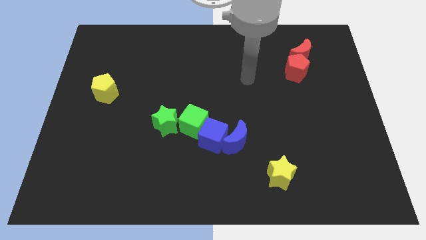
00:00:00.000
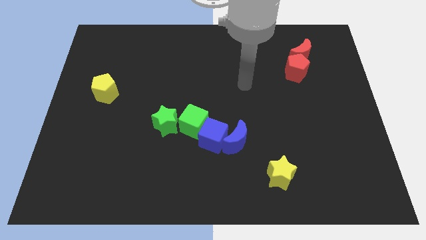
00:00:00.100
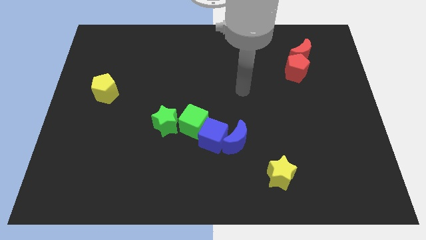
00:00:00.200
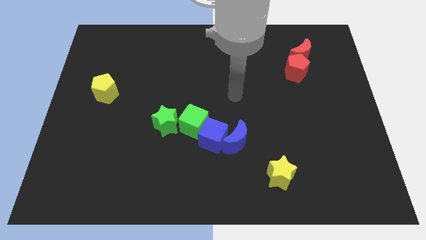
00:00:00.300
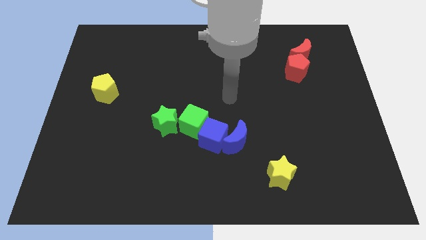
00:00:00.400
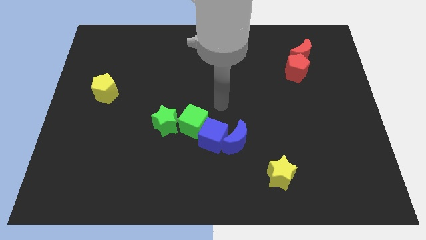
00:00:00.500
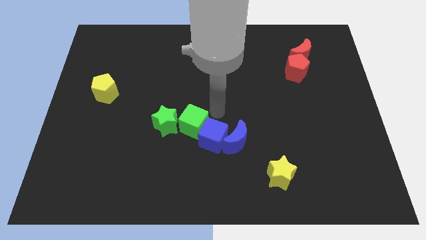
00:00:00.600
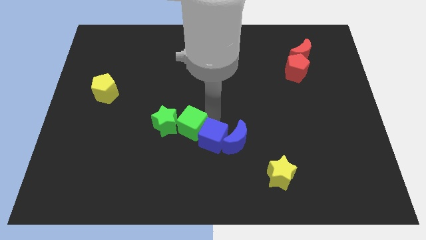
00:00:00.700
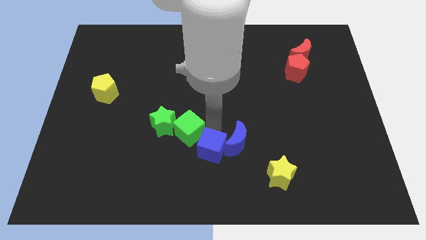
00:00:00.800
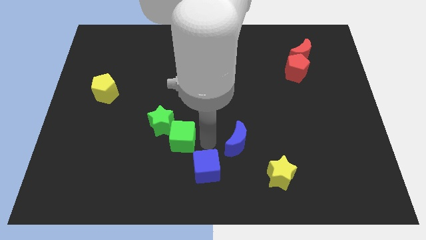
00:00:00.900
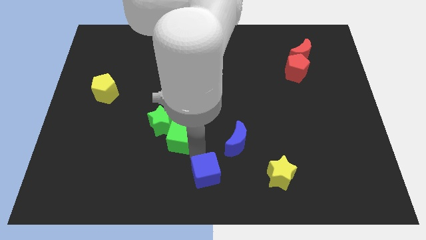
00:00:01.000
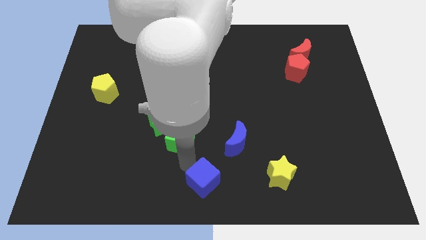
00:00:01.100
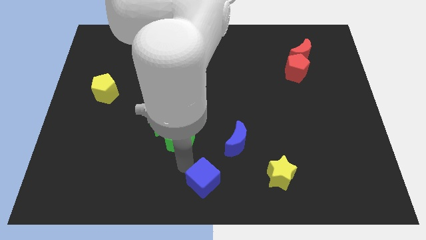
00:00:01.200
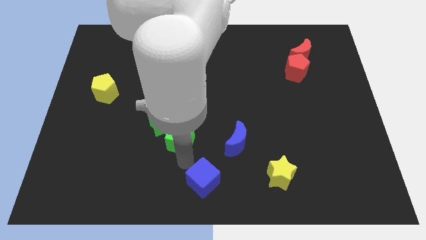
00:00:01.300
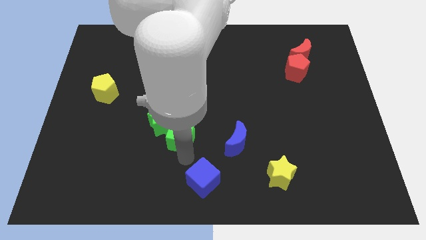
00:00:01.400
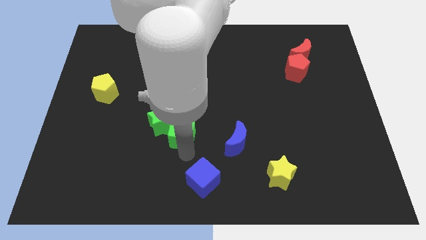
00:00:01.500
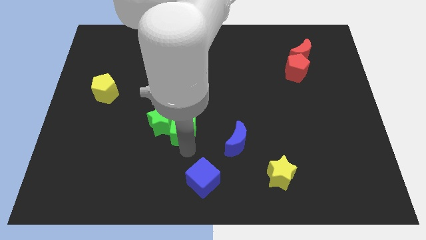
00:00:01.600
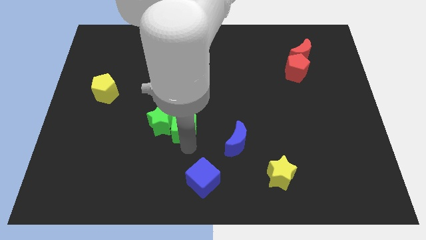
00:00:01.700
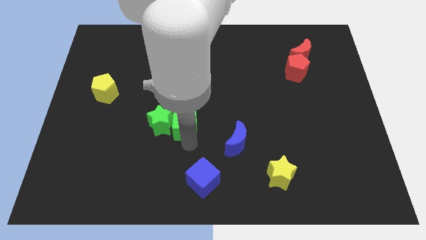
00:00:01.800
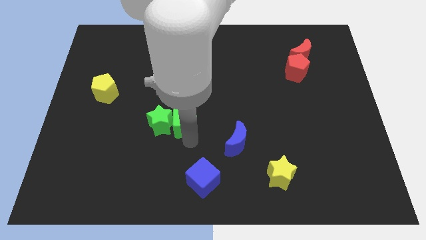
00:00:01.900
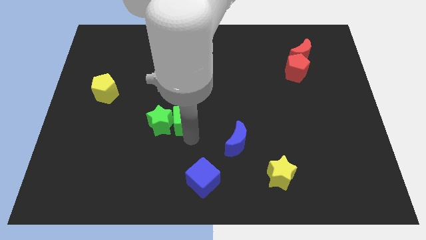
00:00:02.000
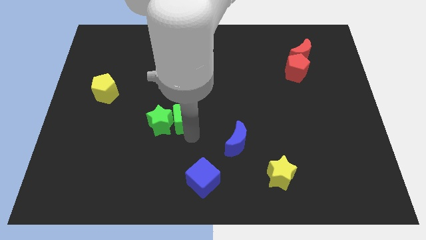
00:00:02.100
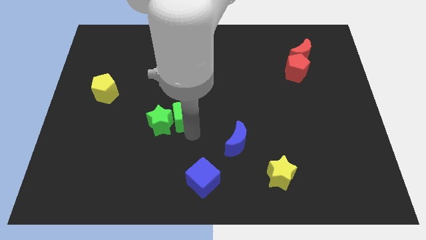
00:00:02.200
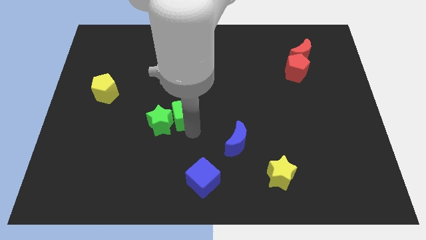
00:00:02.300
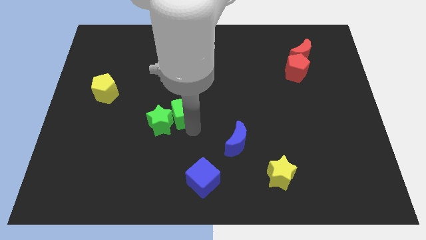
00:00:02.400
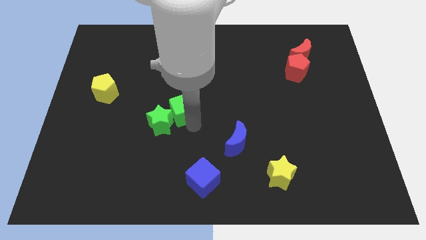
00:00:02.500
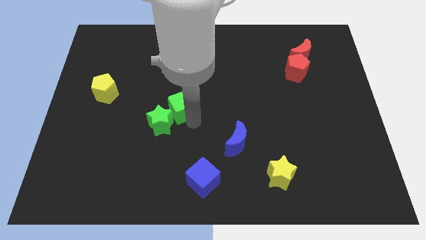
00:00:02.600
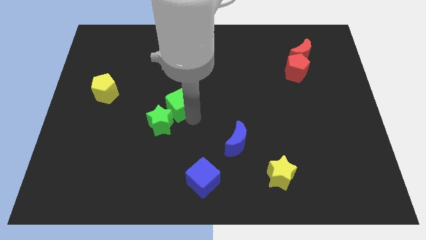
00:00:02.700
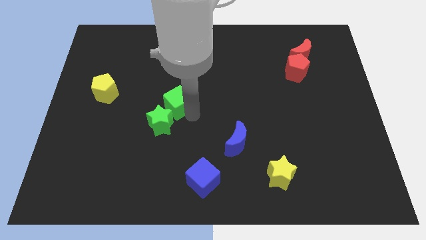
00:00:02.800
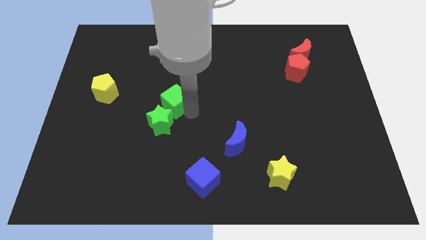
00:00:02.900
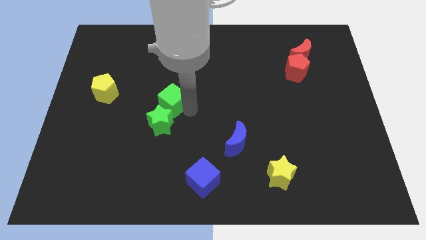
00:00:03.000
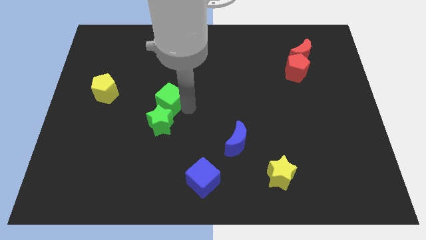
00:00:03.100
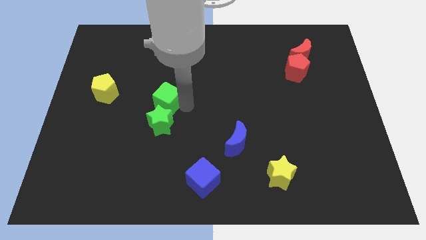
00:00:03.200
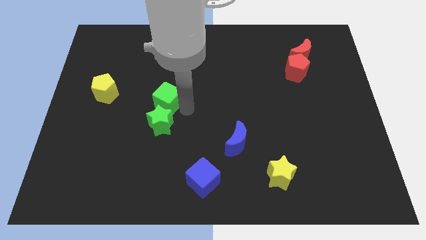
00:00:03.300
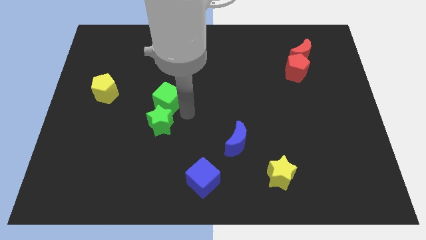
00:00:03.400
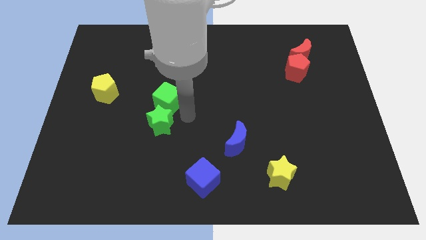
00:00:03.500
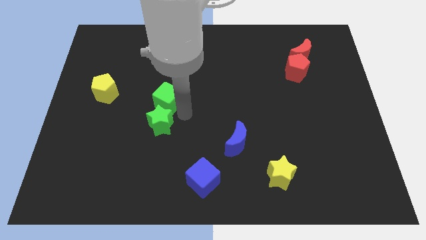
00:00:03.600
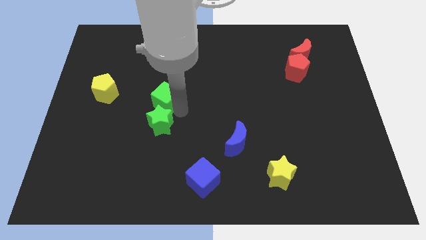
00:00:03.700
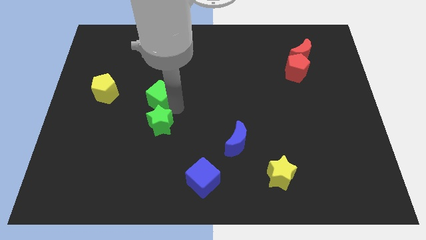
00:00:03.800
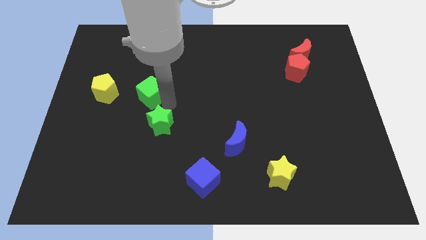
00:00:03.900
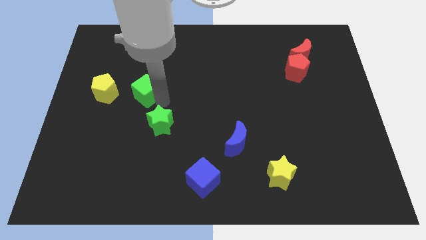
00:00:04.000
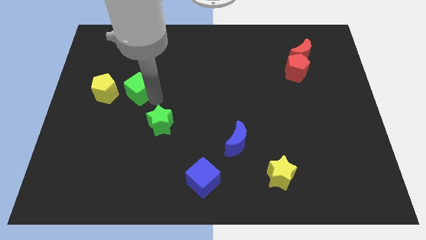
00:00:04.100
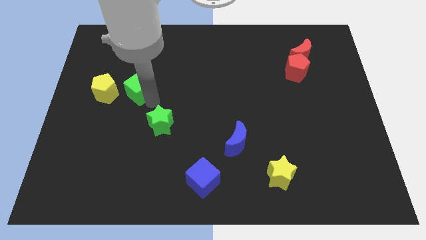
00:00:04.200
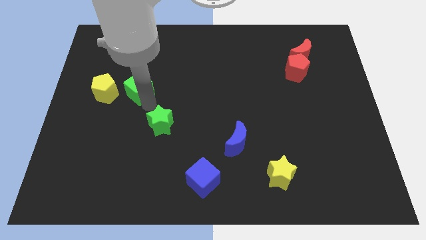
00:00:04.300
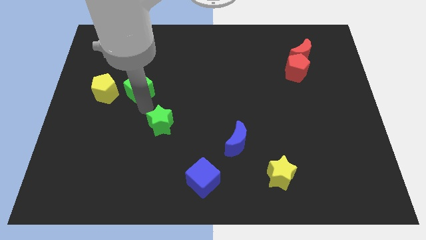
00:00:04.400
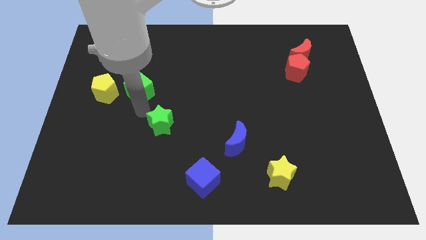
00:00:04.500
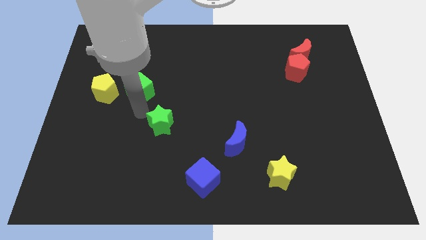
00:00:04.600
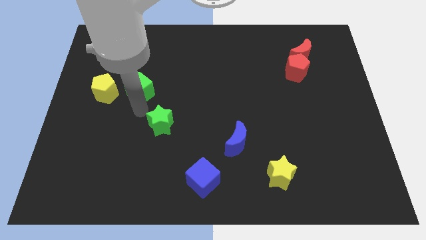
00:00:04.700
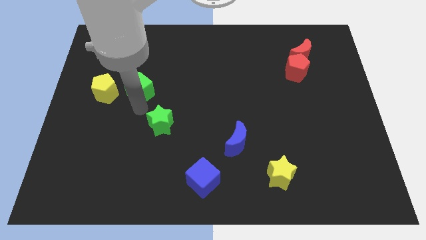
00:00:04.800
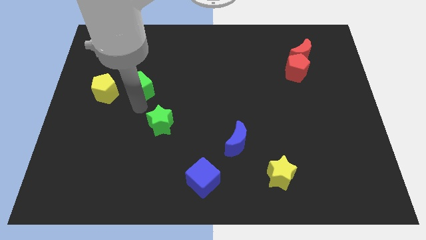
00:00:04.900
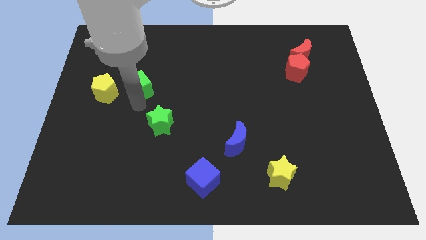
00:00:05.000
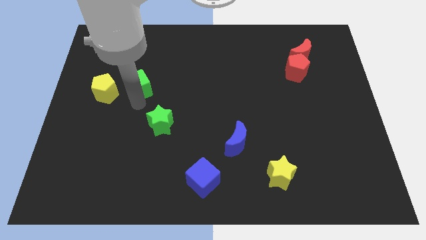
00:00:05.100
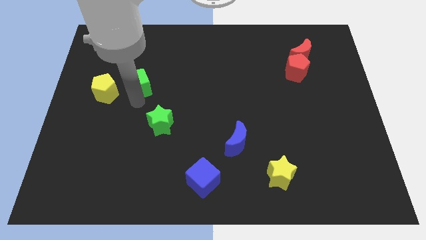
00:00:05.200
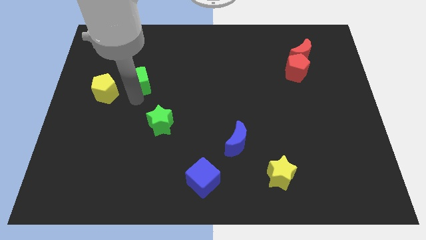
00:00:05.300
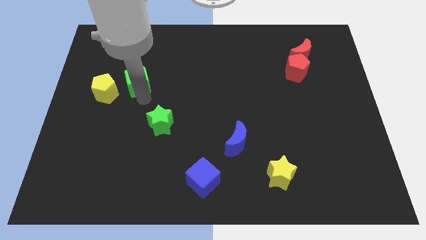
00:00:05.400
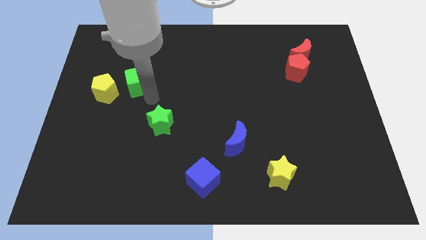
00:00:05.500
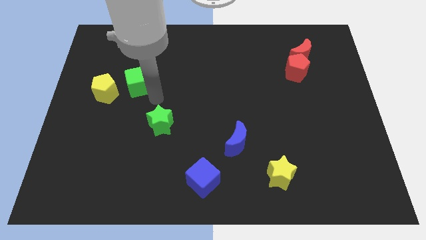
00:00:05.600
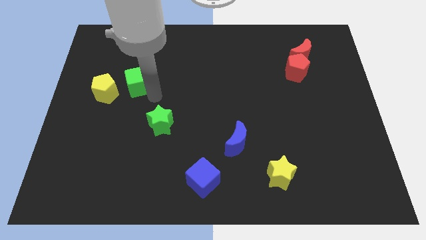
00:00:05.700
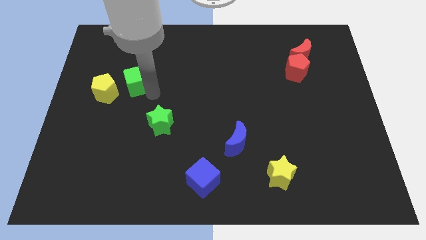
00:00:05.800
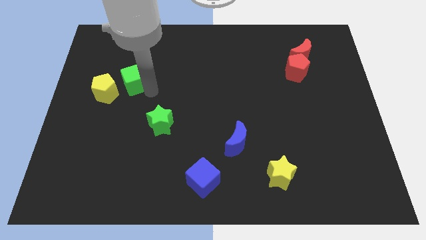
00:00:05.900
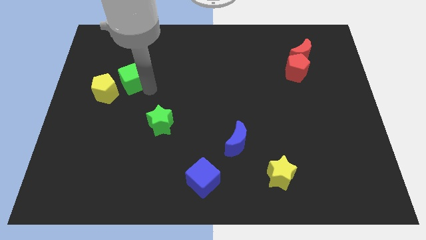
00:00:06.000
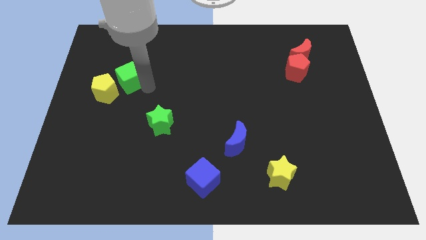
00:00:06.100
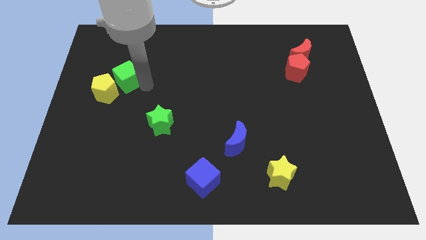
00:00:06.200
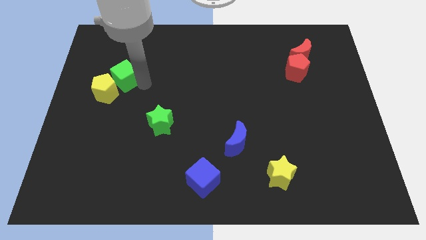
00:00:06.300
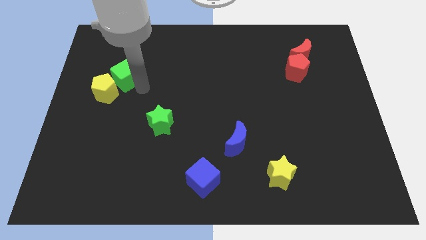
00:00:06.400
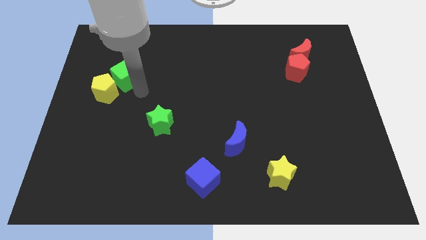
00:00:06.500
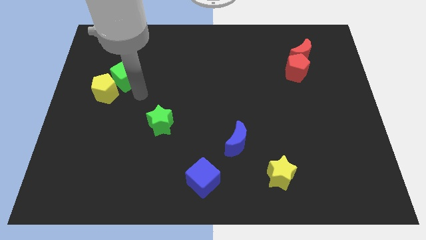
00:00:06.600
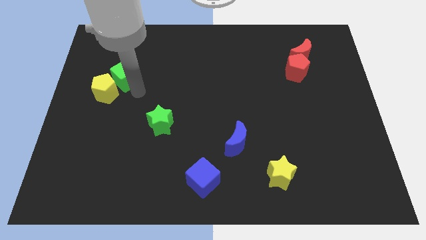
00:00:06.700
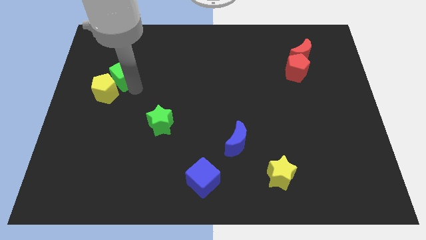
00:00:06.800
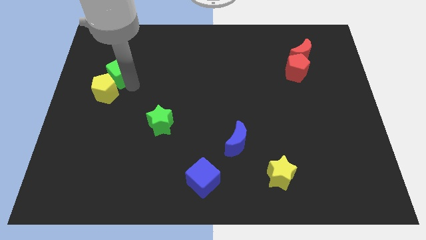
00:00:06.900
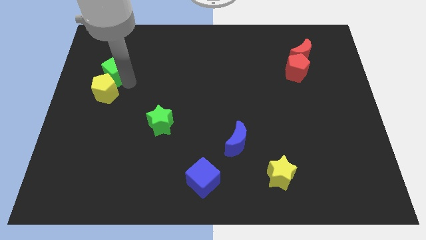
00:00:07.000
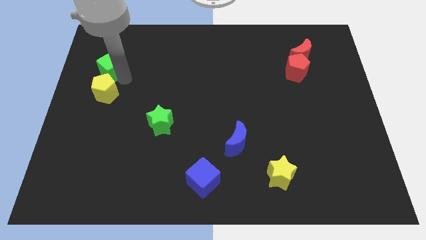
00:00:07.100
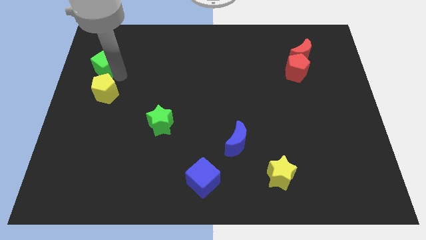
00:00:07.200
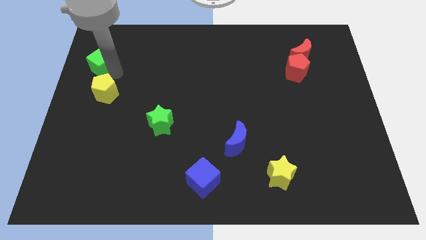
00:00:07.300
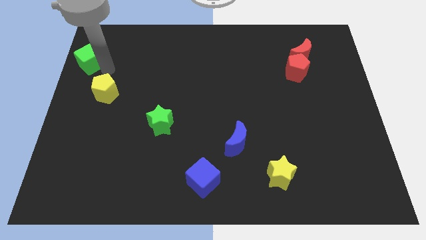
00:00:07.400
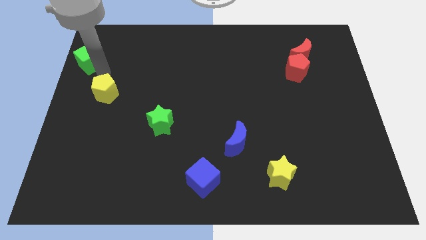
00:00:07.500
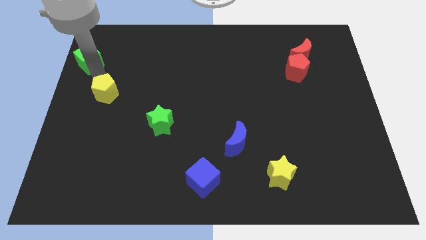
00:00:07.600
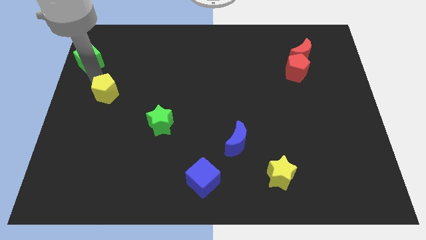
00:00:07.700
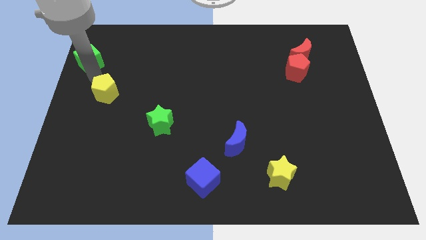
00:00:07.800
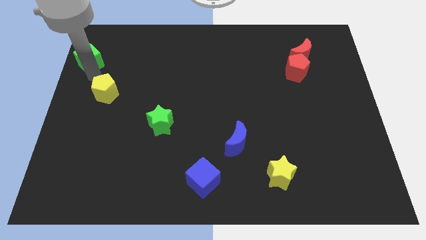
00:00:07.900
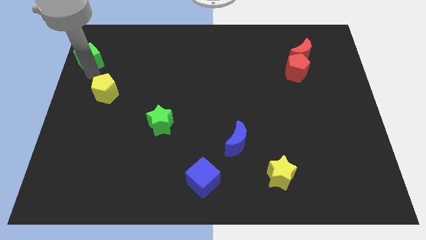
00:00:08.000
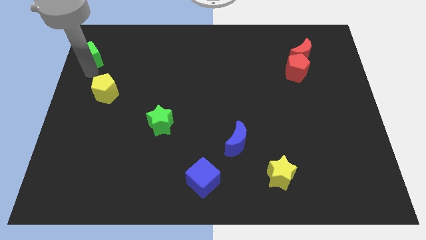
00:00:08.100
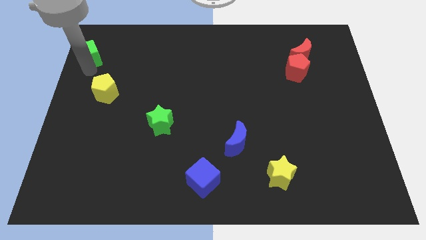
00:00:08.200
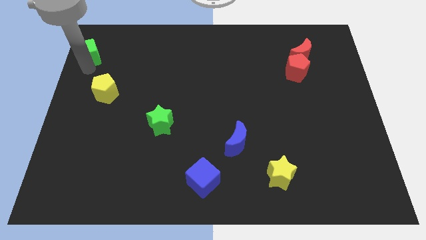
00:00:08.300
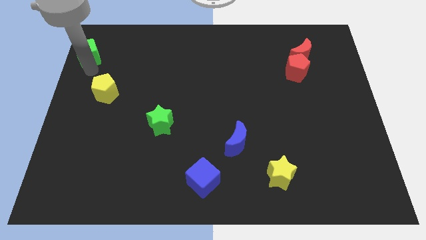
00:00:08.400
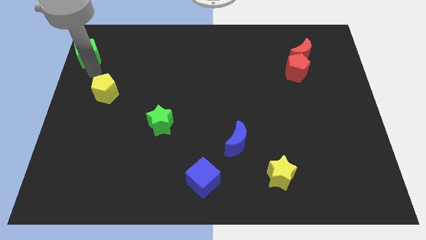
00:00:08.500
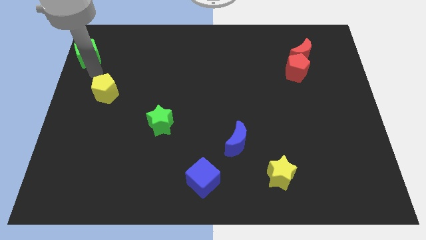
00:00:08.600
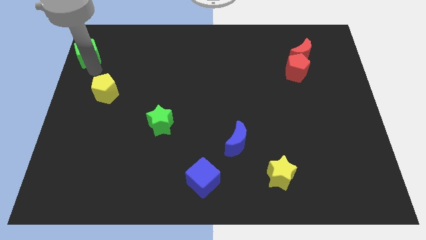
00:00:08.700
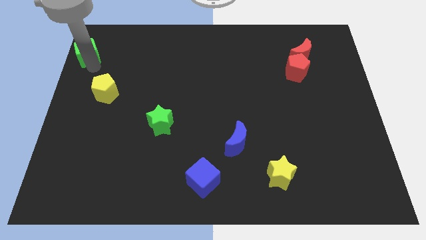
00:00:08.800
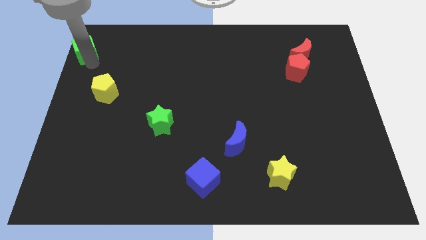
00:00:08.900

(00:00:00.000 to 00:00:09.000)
put the green cube to the top left corner
